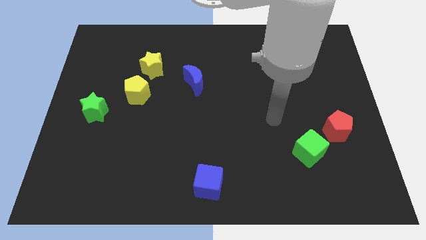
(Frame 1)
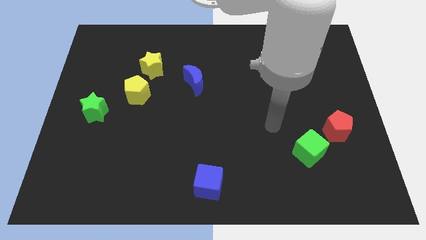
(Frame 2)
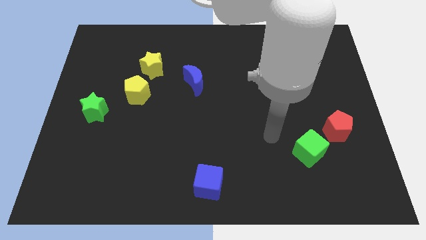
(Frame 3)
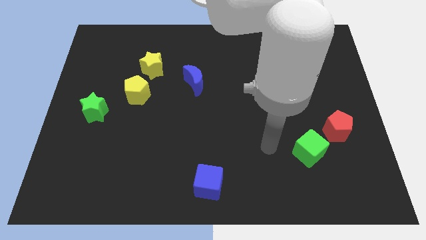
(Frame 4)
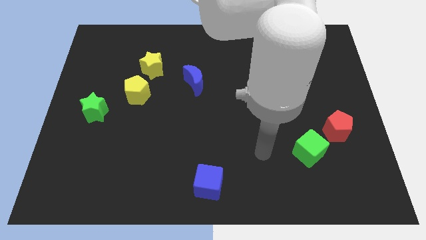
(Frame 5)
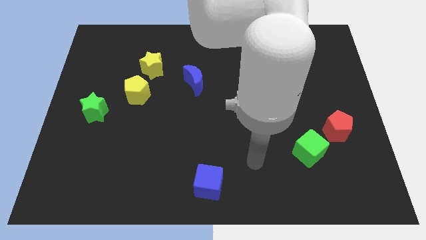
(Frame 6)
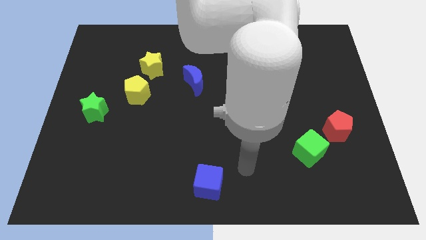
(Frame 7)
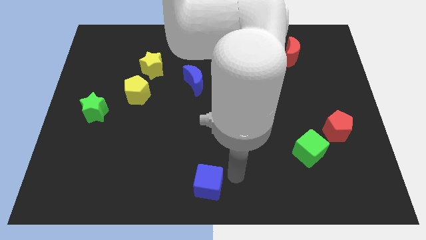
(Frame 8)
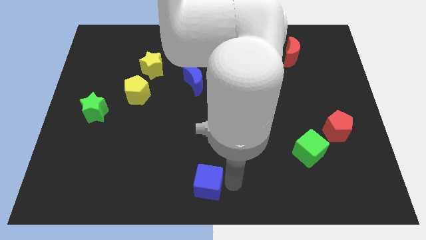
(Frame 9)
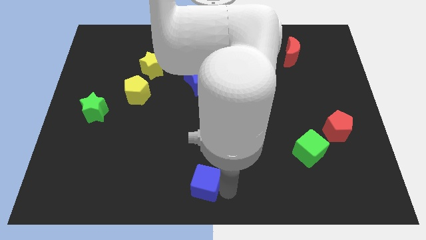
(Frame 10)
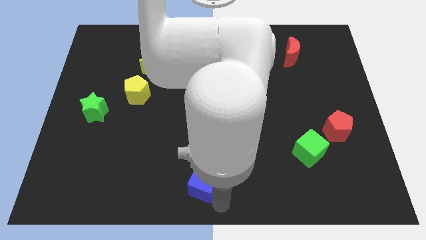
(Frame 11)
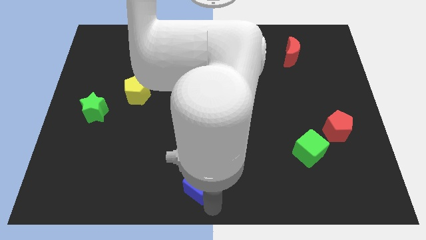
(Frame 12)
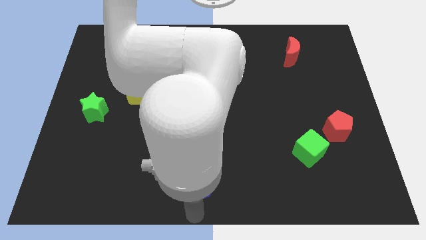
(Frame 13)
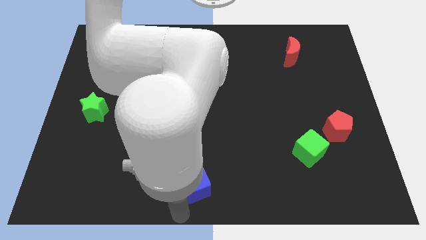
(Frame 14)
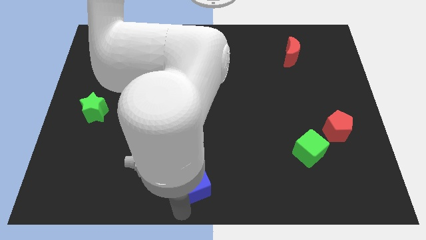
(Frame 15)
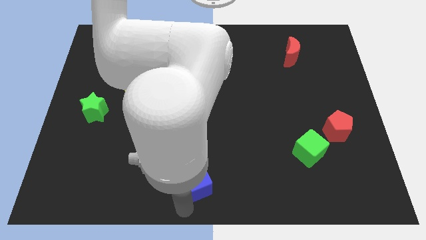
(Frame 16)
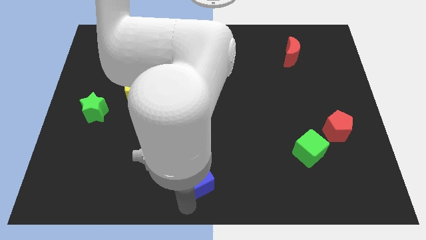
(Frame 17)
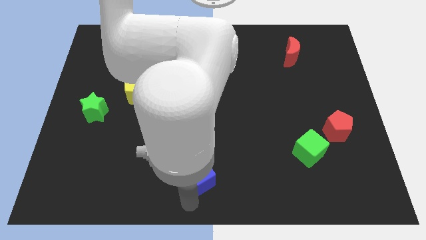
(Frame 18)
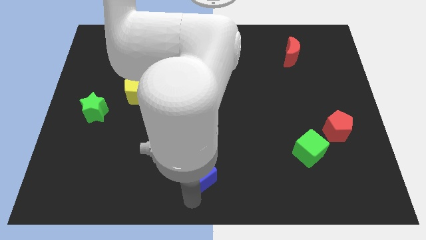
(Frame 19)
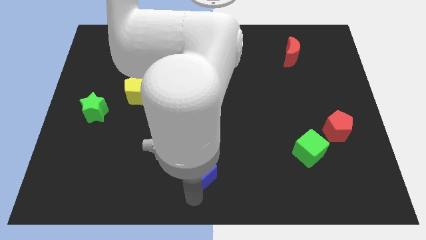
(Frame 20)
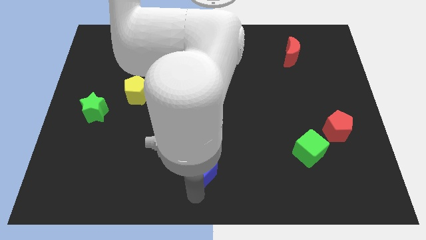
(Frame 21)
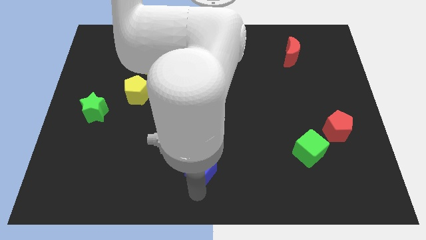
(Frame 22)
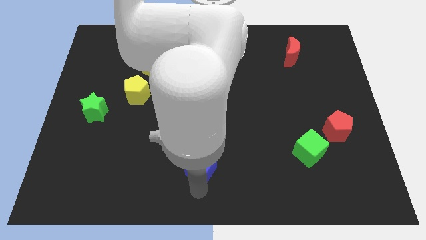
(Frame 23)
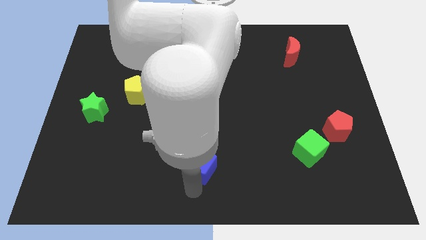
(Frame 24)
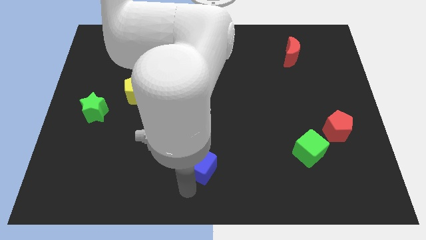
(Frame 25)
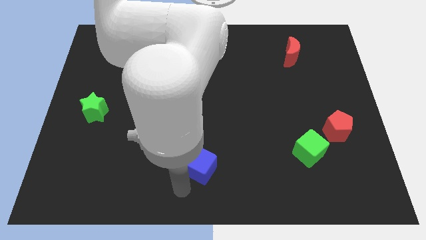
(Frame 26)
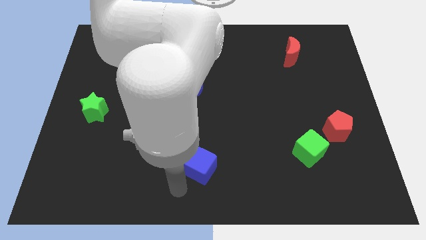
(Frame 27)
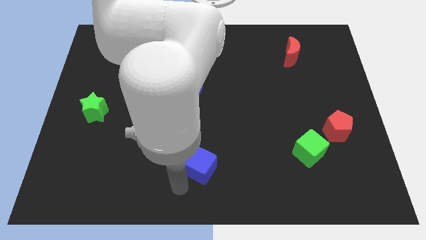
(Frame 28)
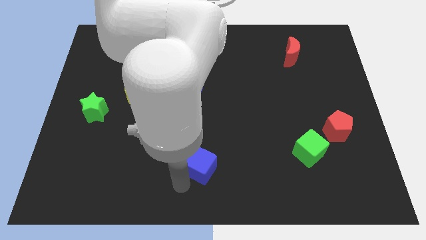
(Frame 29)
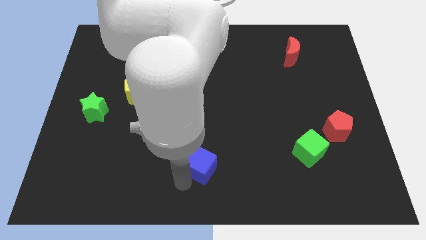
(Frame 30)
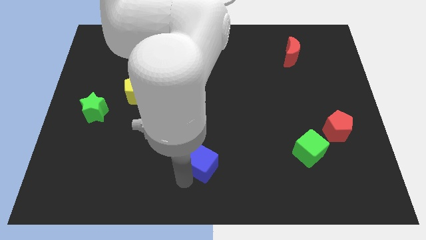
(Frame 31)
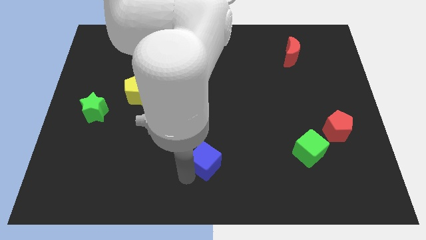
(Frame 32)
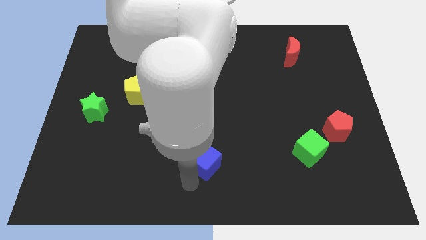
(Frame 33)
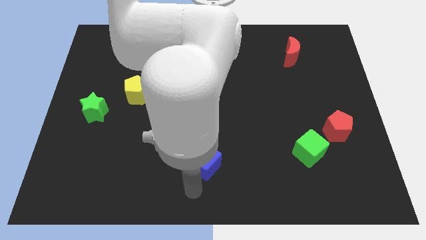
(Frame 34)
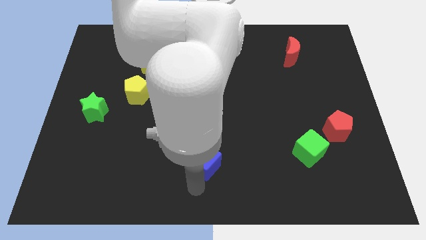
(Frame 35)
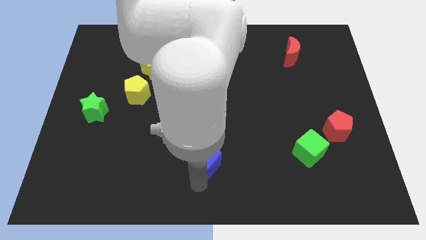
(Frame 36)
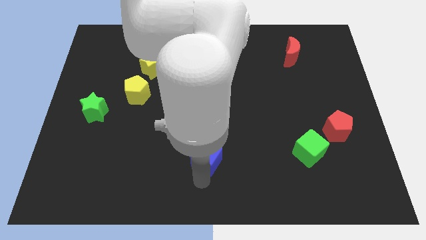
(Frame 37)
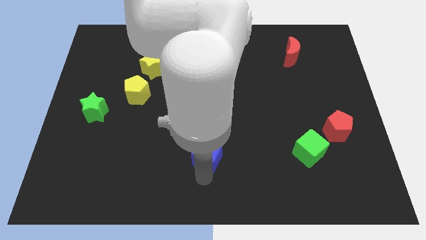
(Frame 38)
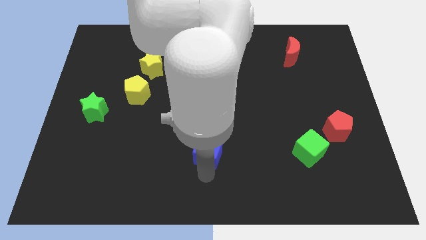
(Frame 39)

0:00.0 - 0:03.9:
slide the blue cube somewhat up

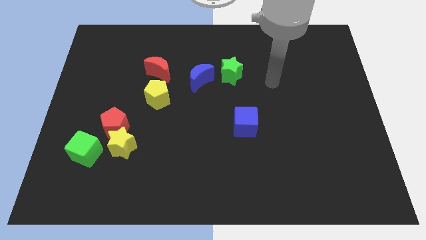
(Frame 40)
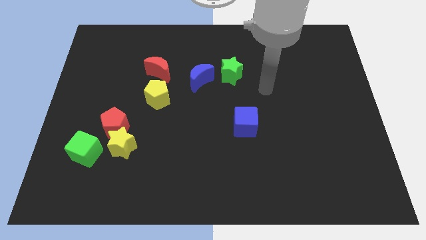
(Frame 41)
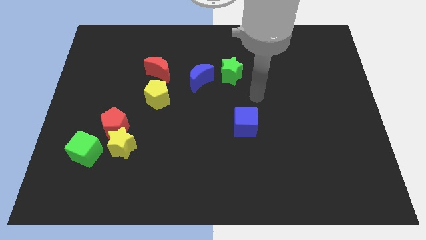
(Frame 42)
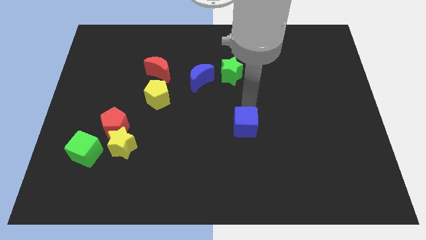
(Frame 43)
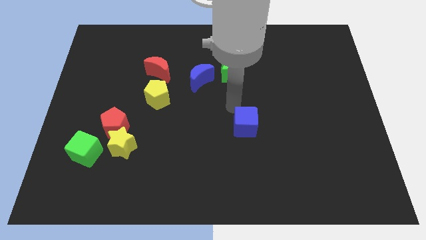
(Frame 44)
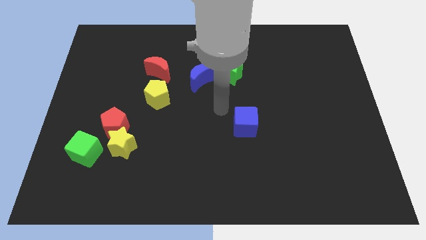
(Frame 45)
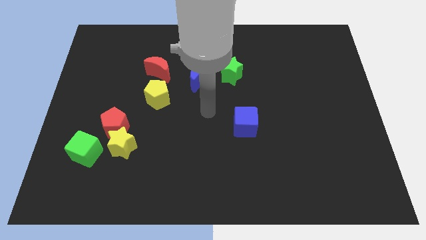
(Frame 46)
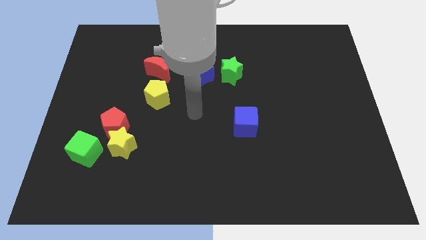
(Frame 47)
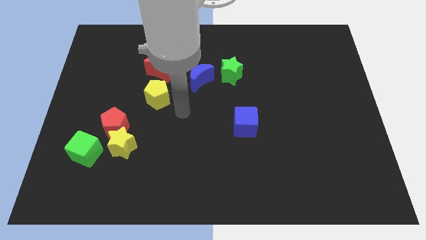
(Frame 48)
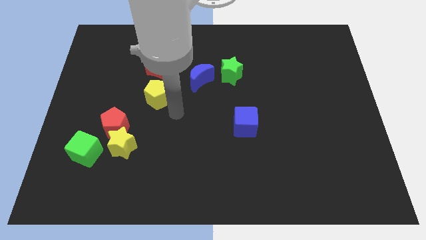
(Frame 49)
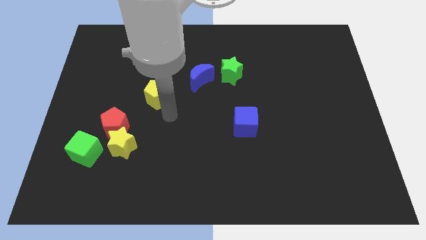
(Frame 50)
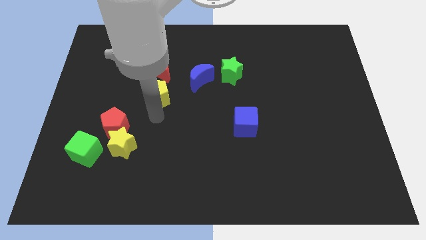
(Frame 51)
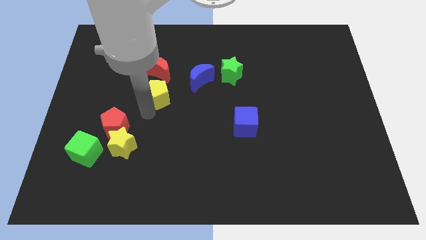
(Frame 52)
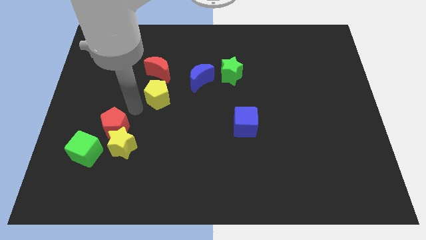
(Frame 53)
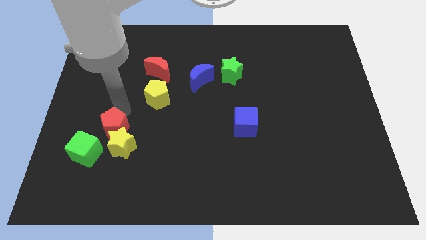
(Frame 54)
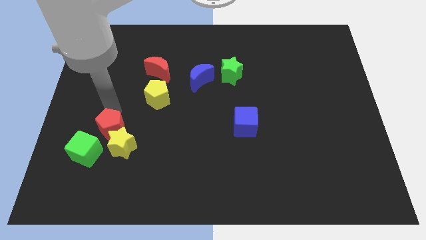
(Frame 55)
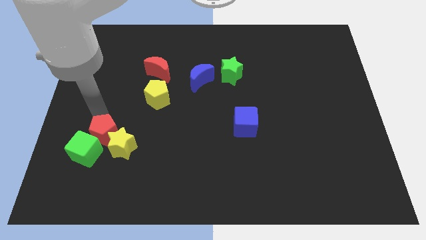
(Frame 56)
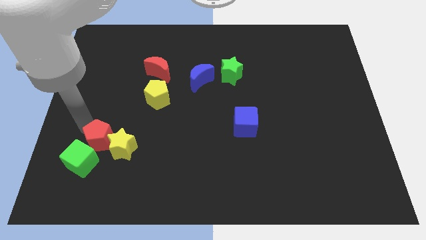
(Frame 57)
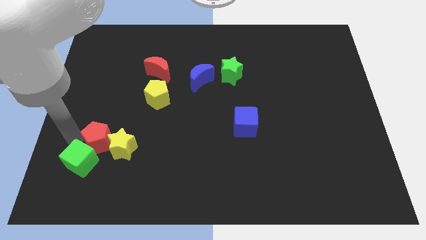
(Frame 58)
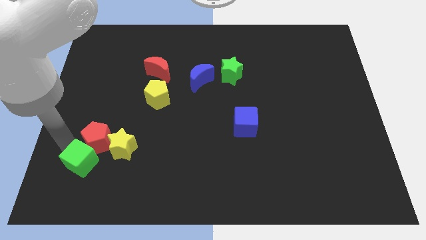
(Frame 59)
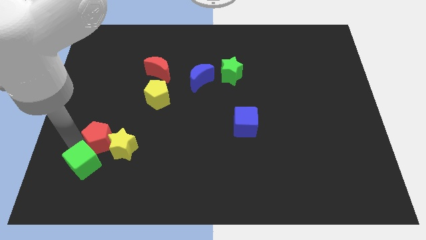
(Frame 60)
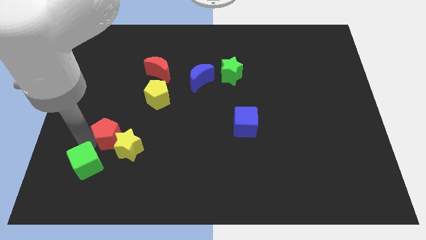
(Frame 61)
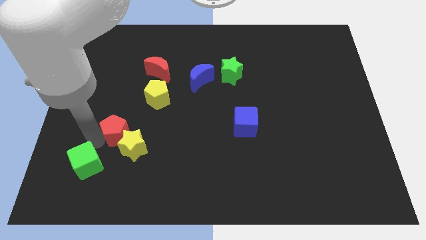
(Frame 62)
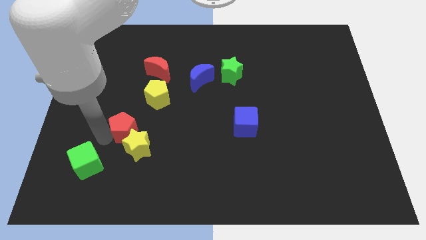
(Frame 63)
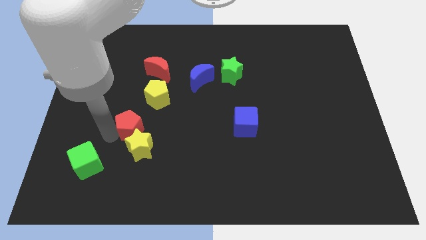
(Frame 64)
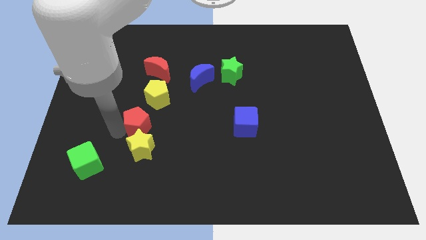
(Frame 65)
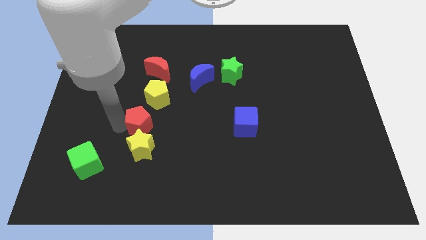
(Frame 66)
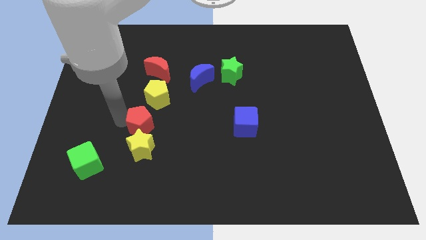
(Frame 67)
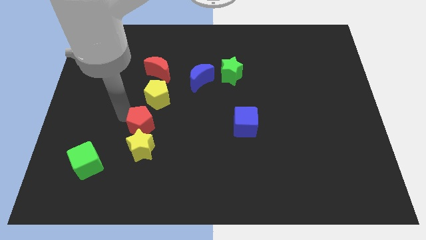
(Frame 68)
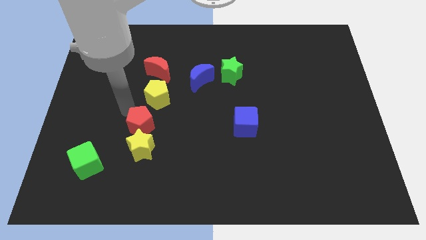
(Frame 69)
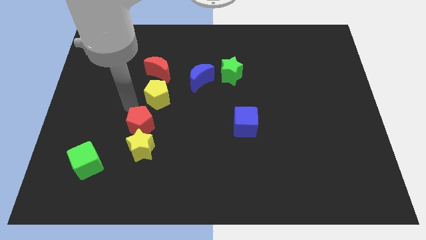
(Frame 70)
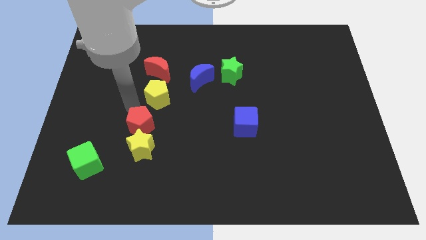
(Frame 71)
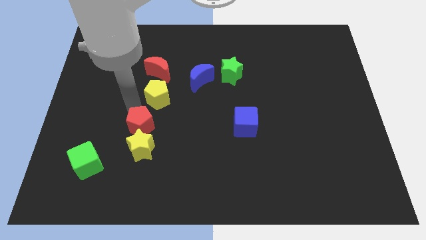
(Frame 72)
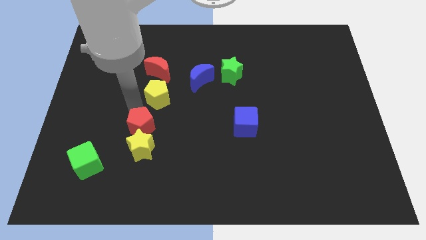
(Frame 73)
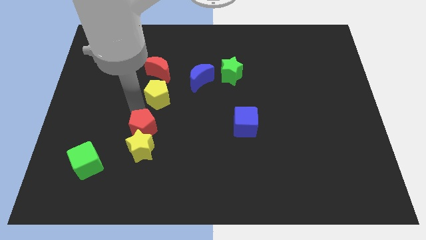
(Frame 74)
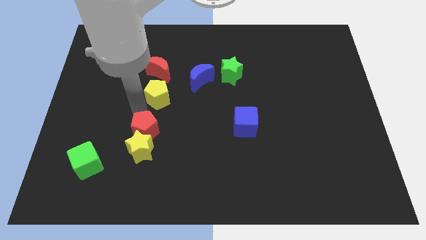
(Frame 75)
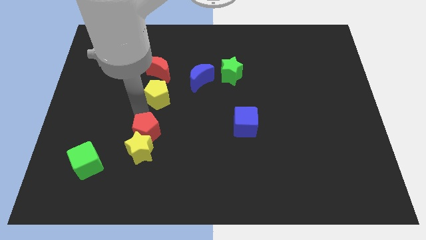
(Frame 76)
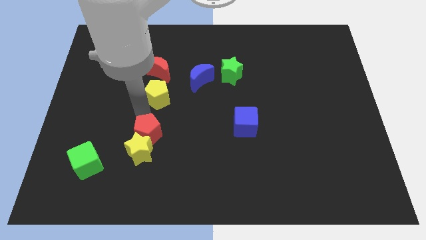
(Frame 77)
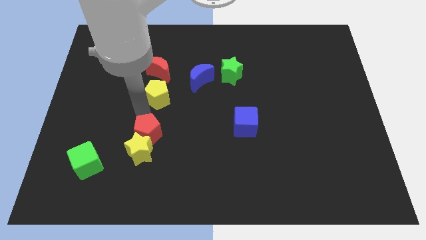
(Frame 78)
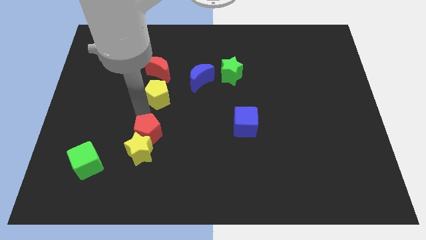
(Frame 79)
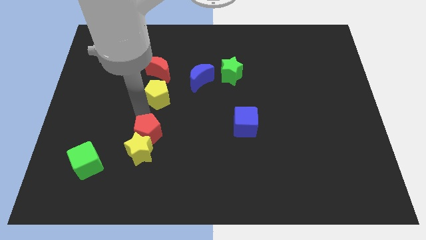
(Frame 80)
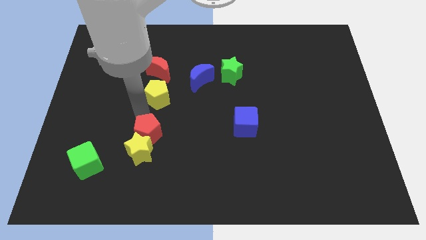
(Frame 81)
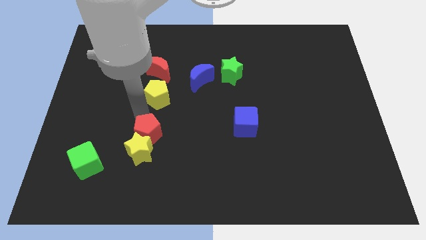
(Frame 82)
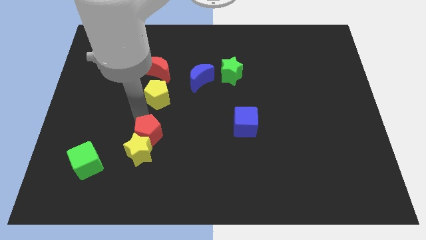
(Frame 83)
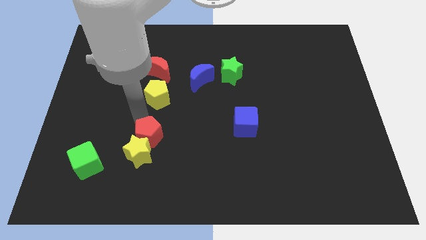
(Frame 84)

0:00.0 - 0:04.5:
slide the red pentagon down and right somewhat
